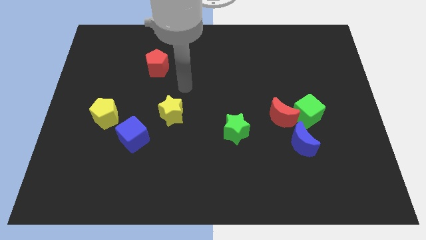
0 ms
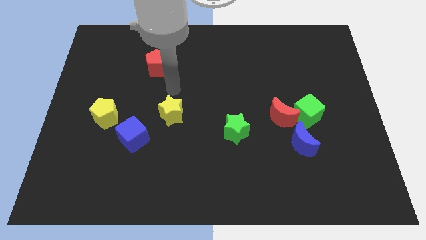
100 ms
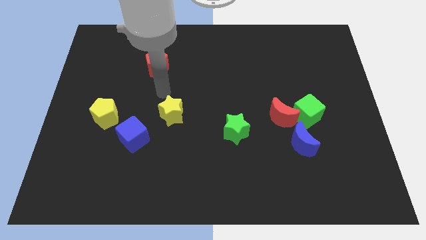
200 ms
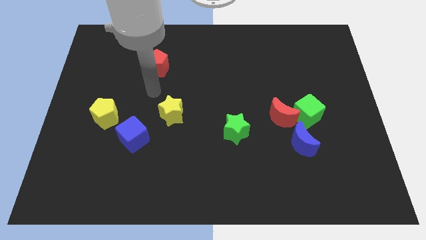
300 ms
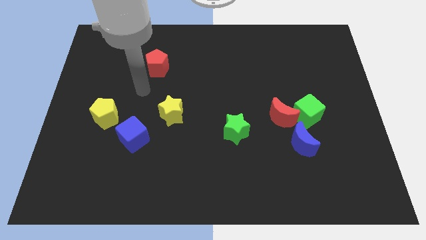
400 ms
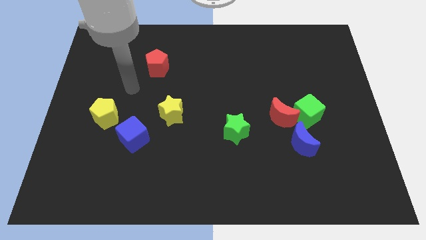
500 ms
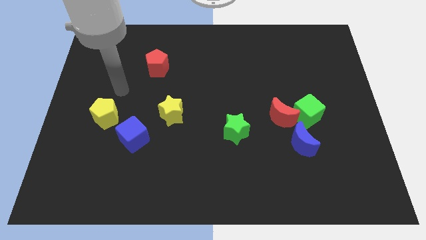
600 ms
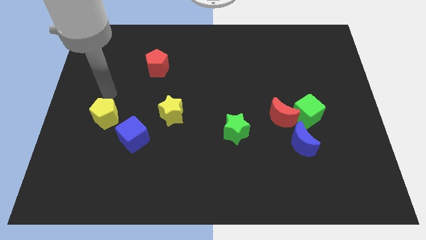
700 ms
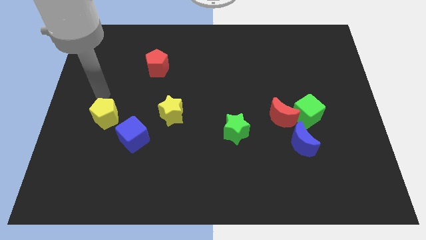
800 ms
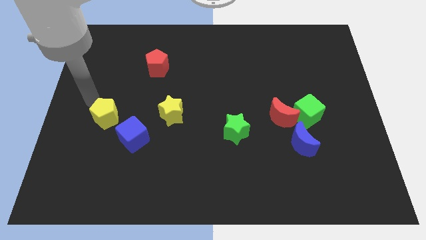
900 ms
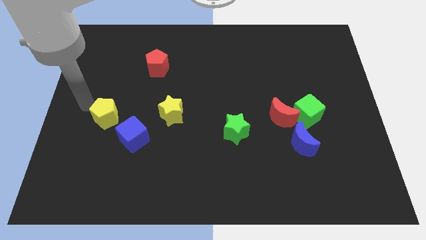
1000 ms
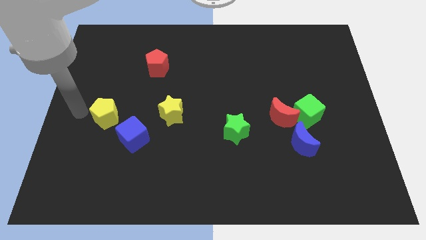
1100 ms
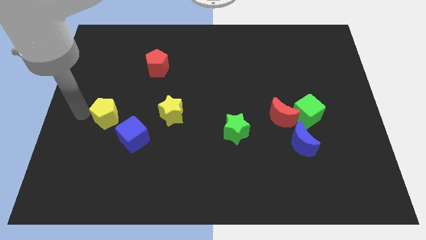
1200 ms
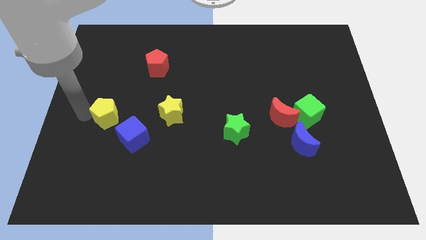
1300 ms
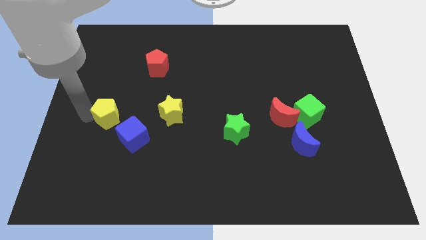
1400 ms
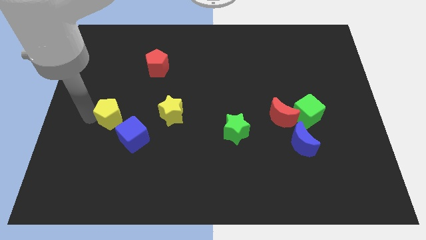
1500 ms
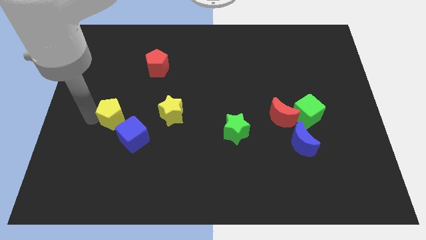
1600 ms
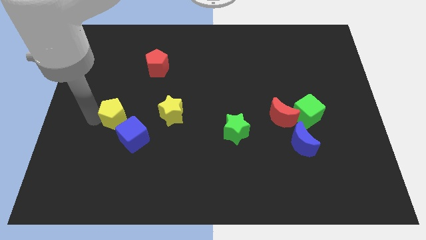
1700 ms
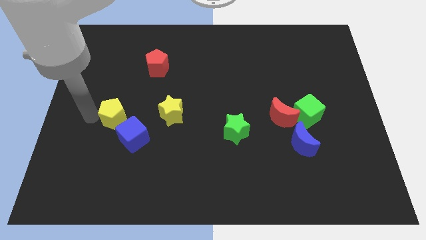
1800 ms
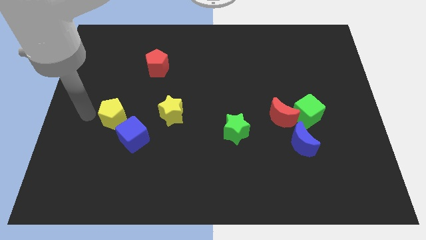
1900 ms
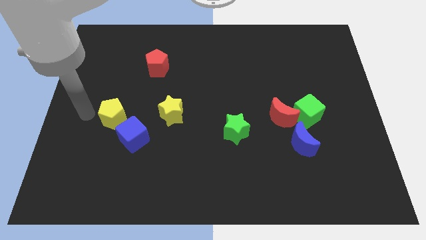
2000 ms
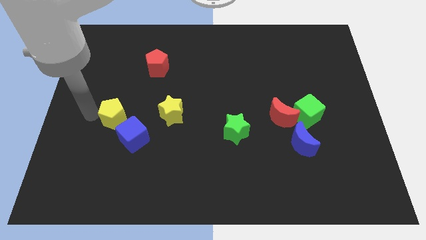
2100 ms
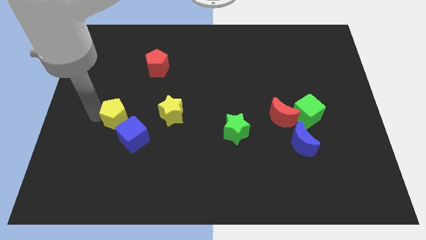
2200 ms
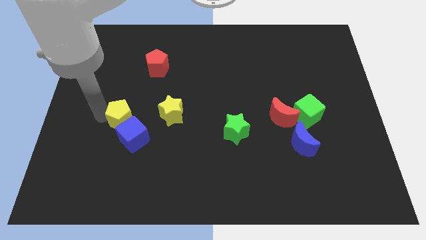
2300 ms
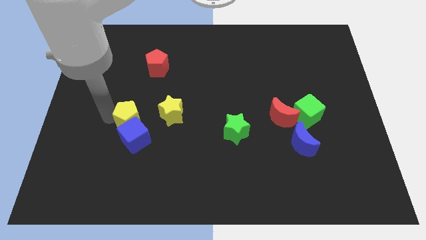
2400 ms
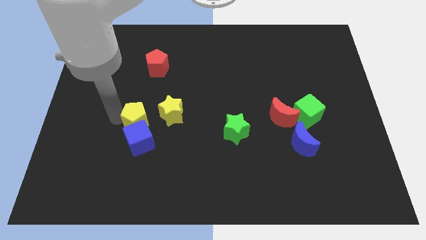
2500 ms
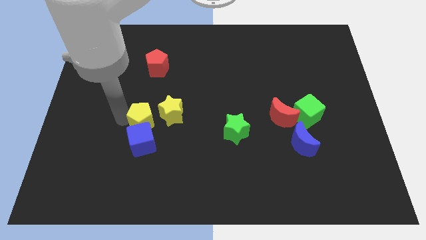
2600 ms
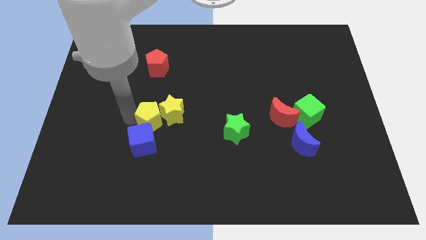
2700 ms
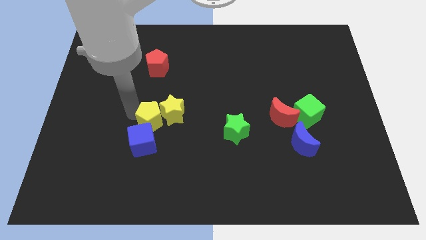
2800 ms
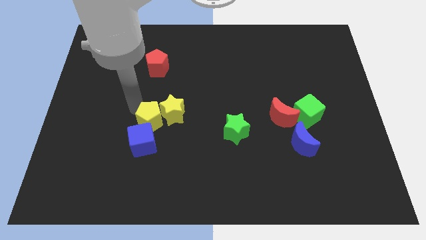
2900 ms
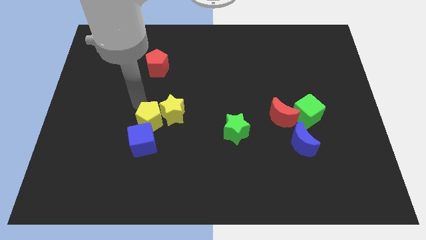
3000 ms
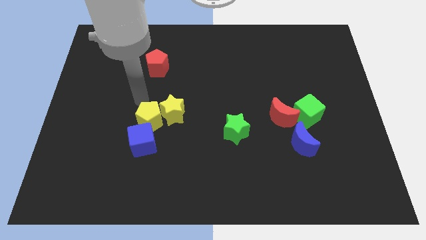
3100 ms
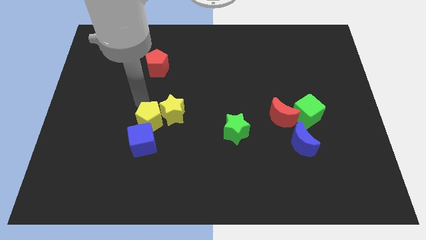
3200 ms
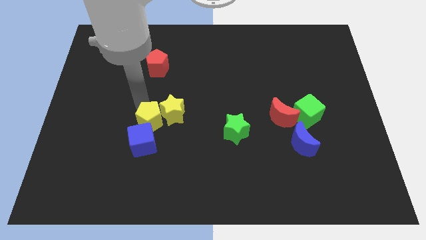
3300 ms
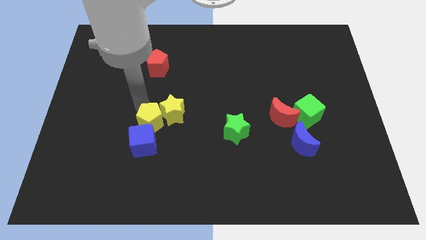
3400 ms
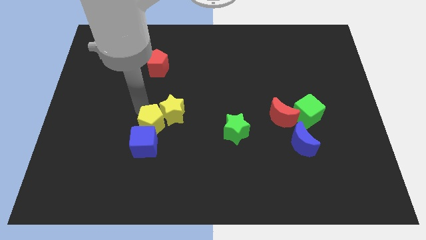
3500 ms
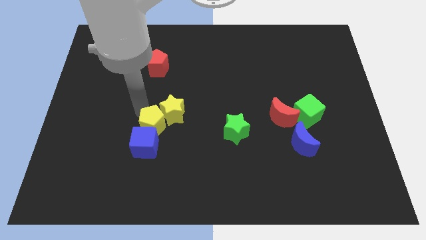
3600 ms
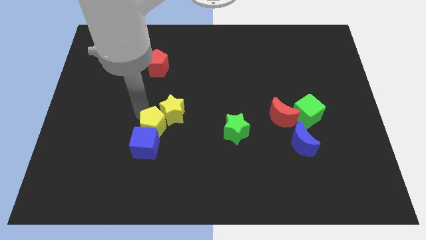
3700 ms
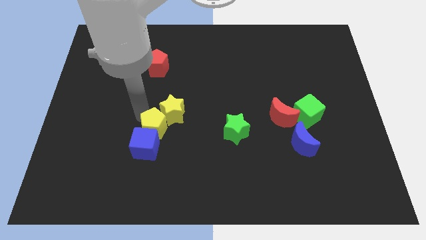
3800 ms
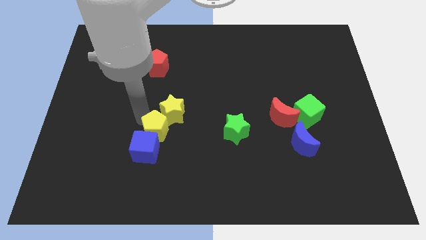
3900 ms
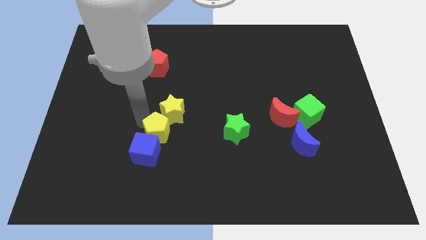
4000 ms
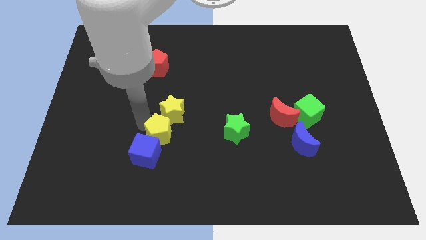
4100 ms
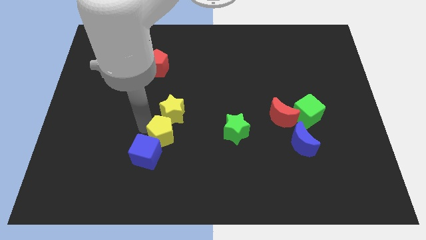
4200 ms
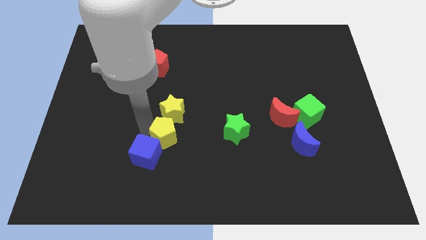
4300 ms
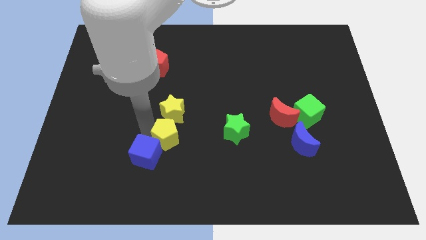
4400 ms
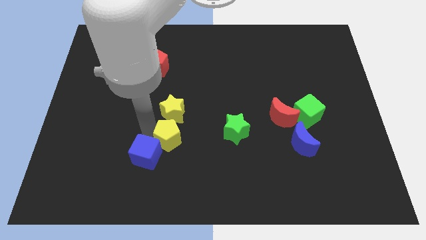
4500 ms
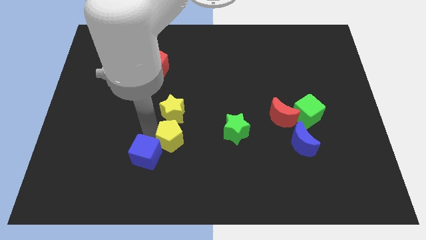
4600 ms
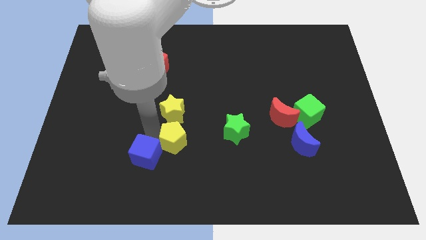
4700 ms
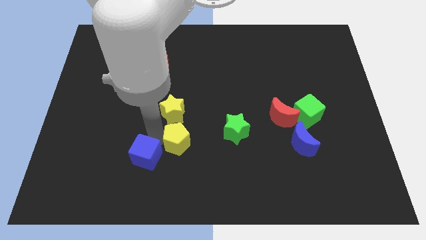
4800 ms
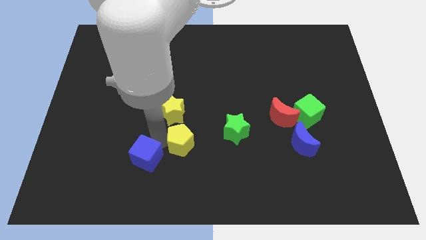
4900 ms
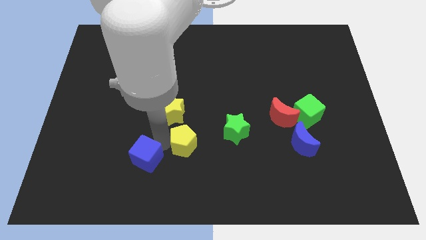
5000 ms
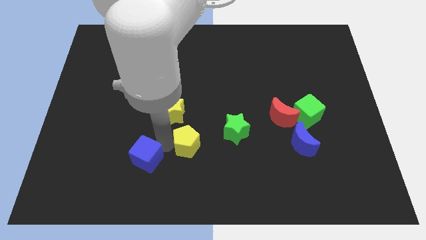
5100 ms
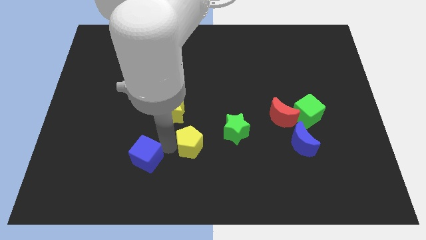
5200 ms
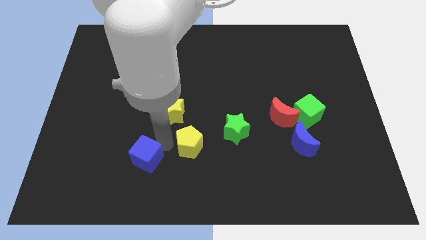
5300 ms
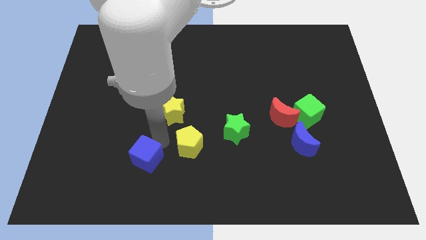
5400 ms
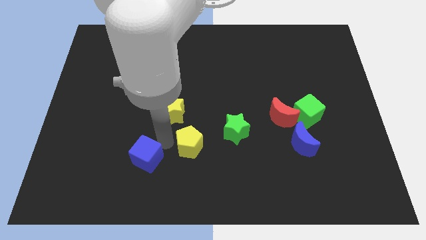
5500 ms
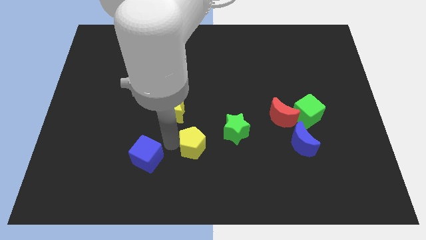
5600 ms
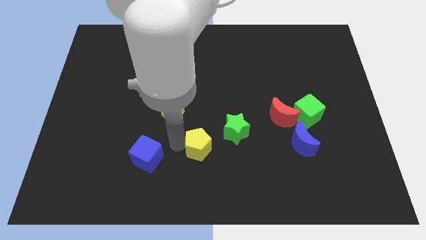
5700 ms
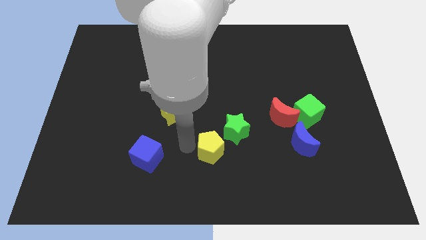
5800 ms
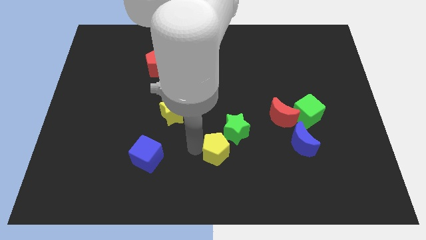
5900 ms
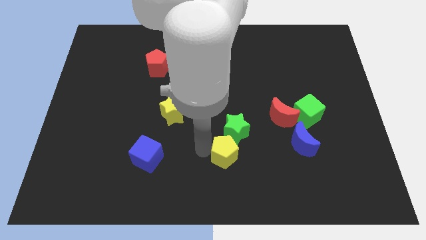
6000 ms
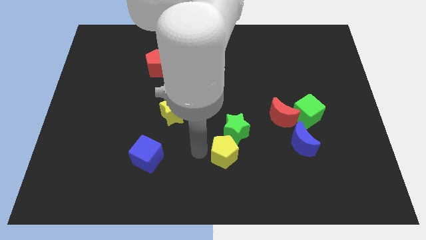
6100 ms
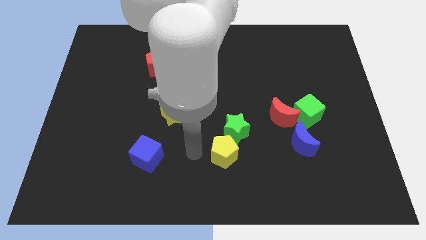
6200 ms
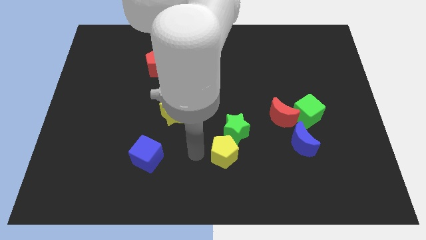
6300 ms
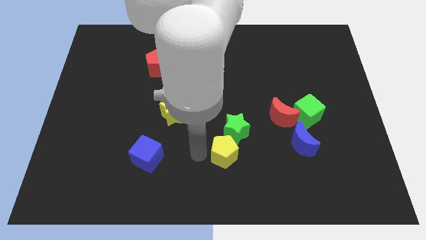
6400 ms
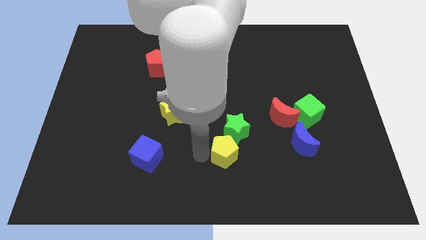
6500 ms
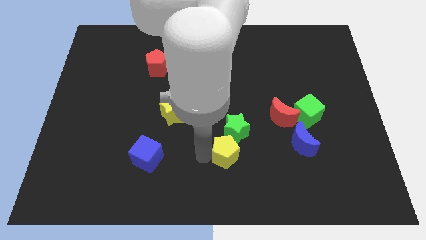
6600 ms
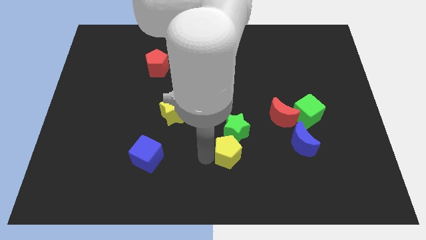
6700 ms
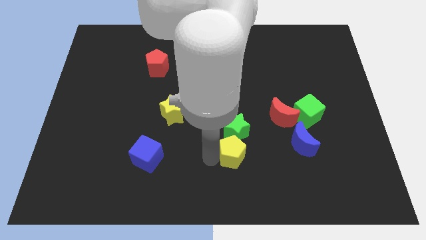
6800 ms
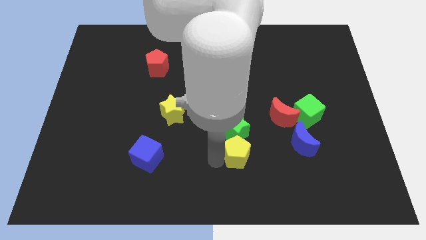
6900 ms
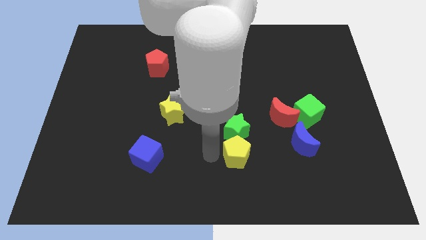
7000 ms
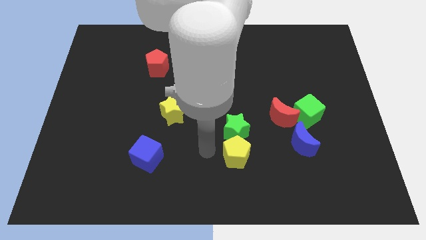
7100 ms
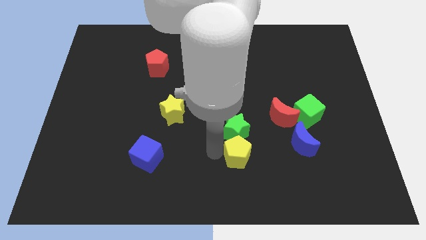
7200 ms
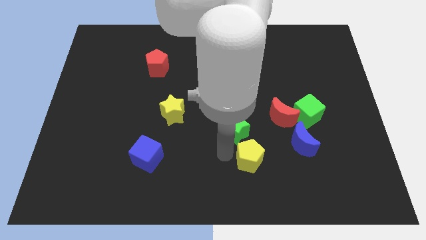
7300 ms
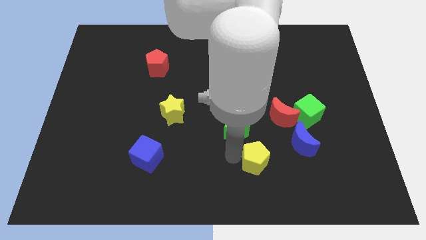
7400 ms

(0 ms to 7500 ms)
move the yellow pentagon to the bottom left side of the blue moon

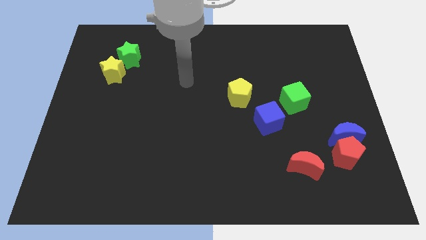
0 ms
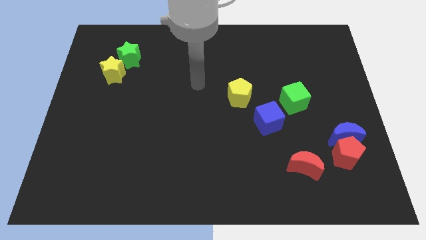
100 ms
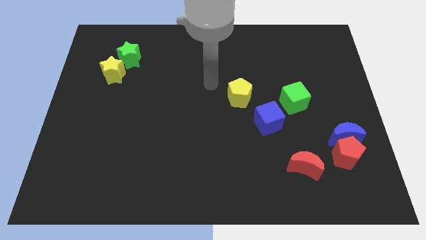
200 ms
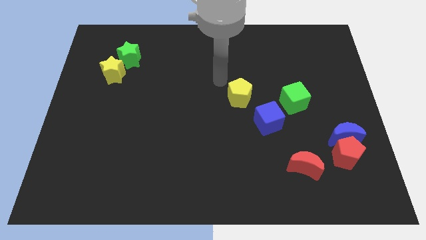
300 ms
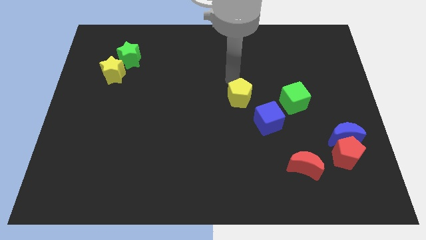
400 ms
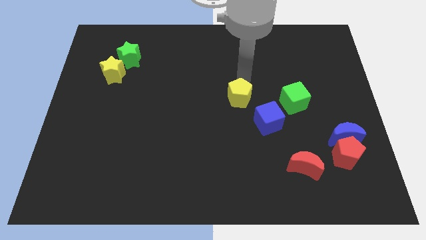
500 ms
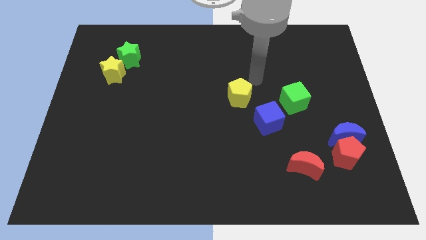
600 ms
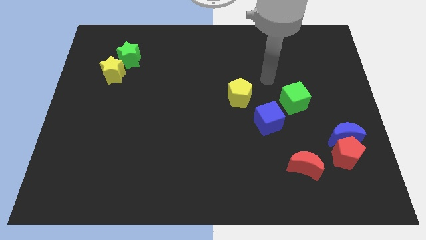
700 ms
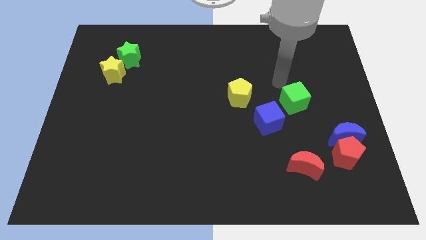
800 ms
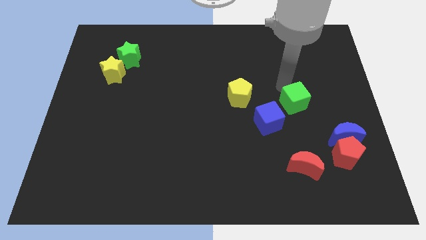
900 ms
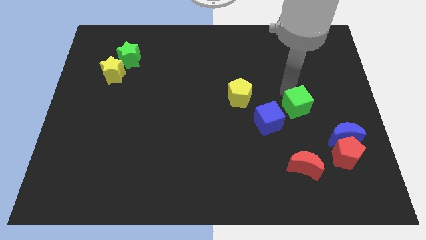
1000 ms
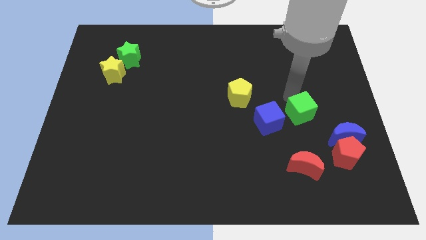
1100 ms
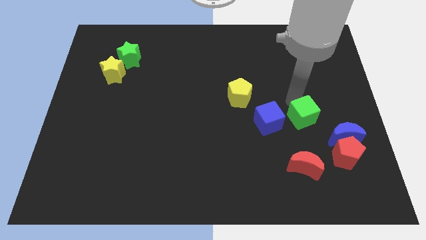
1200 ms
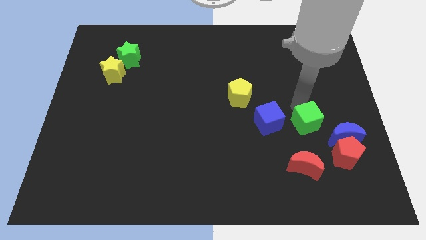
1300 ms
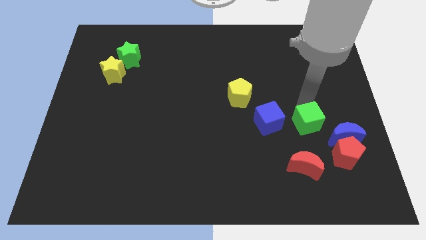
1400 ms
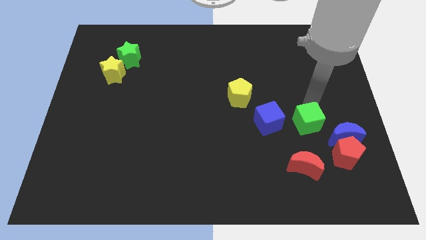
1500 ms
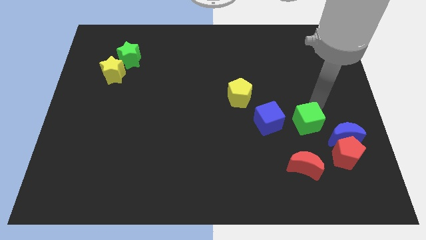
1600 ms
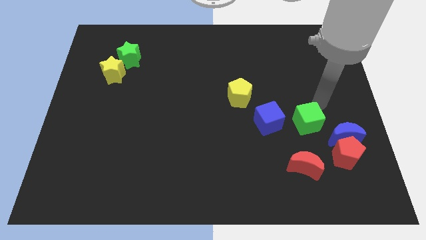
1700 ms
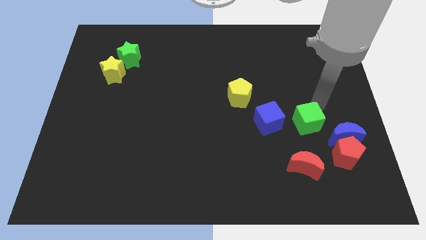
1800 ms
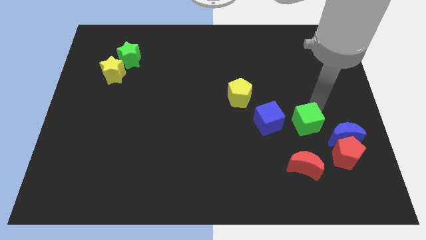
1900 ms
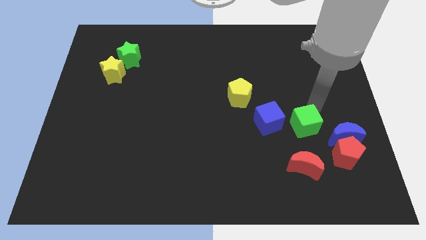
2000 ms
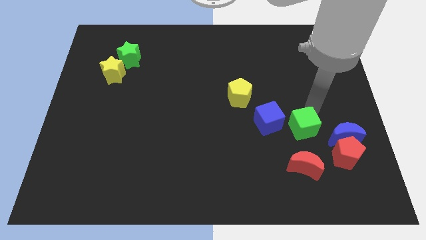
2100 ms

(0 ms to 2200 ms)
put the green cube to the bottom right side of the blue cube
